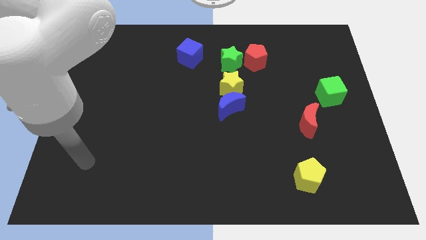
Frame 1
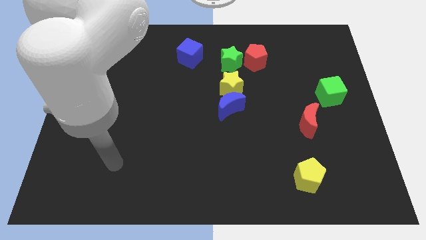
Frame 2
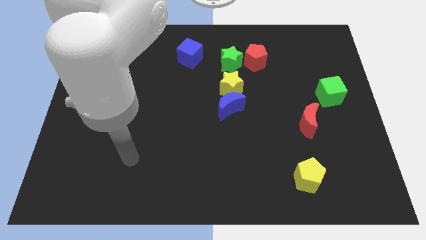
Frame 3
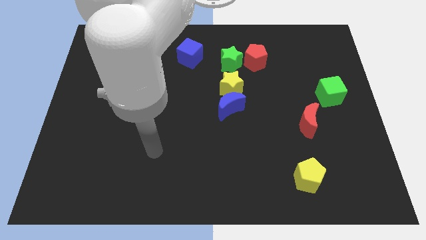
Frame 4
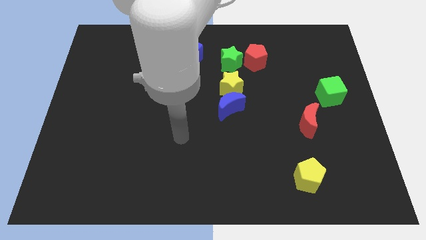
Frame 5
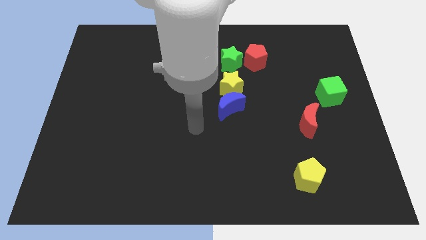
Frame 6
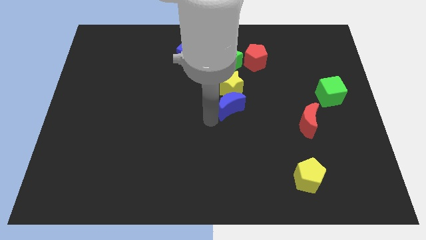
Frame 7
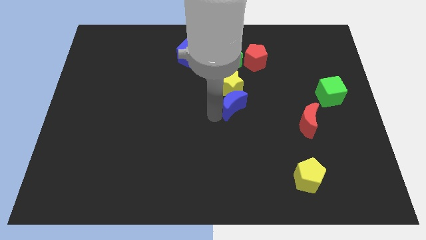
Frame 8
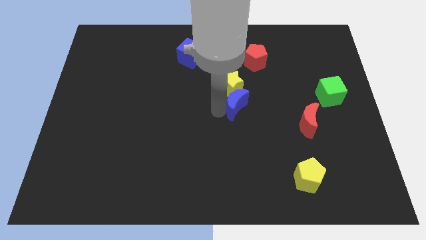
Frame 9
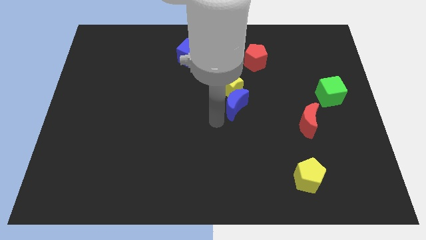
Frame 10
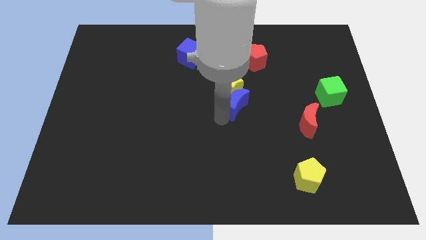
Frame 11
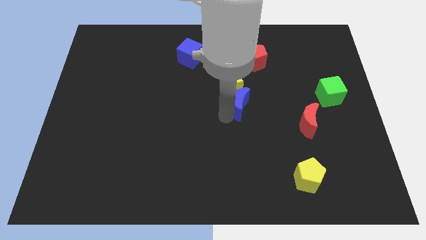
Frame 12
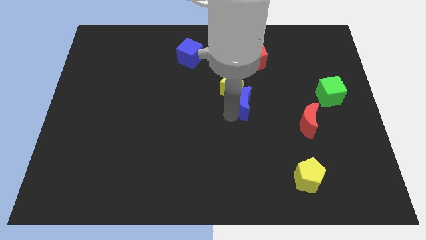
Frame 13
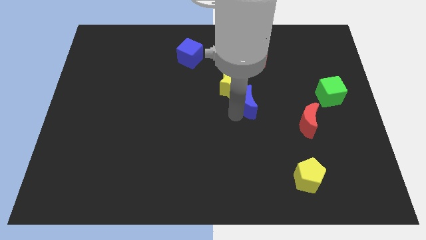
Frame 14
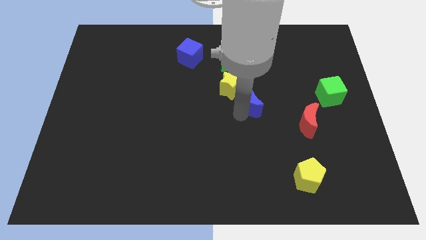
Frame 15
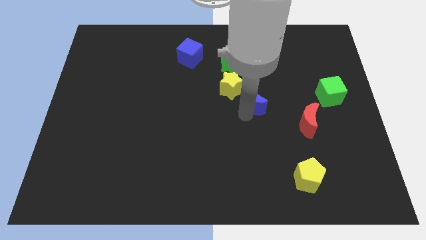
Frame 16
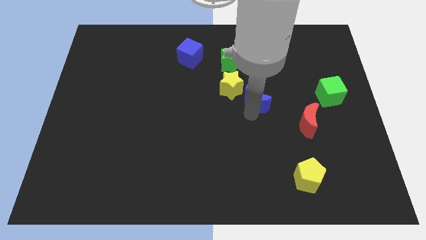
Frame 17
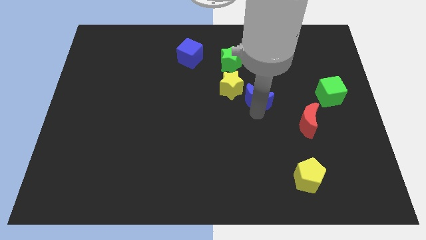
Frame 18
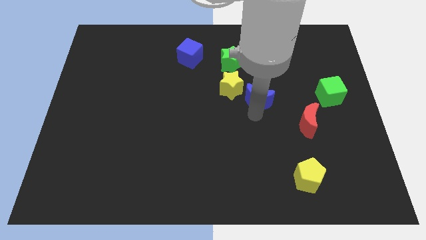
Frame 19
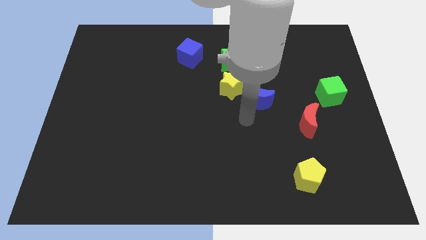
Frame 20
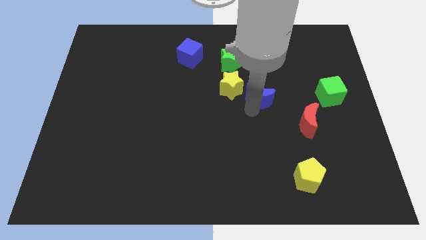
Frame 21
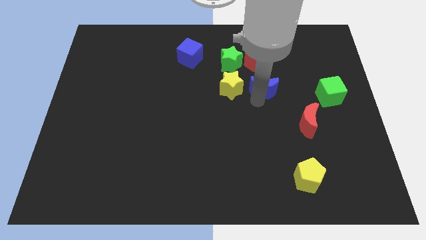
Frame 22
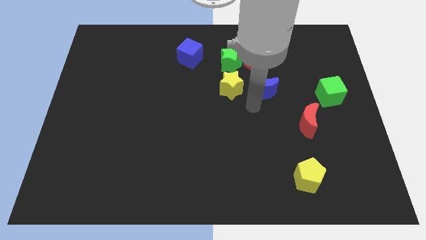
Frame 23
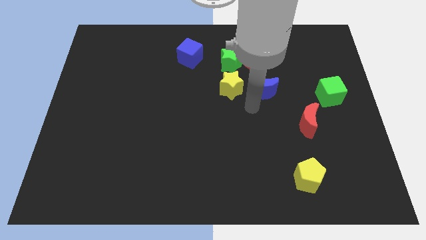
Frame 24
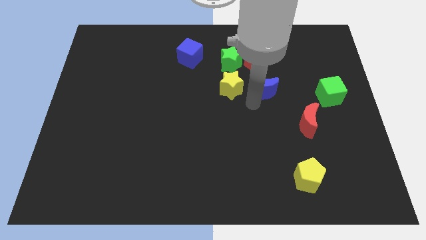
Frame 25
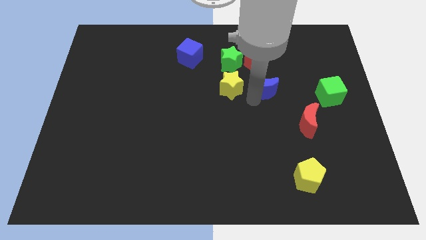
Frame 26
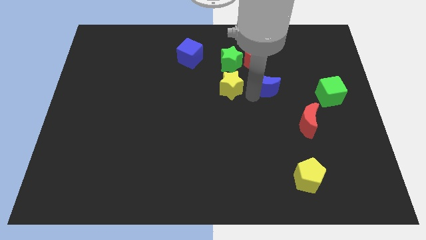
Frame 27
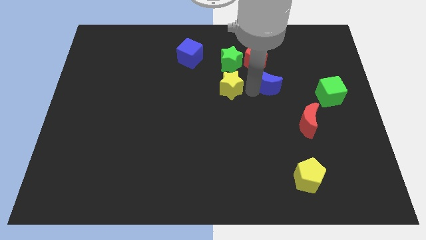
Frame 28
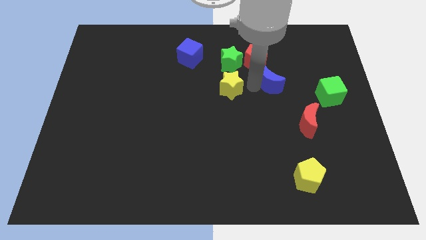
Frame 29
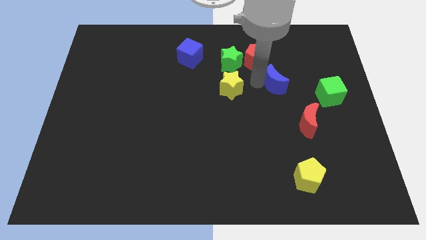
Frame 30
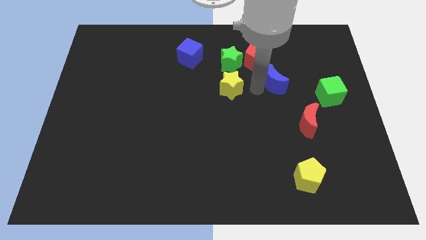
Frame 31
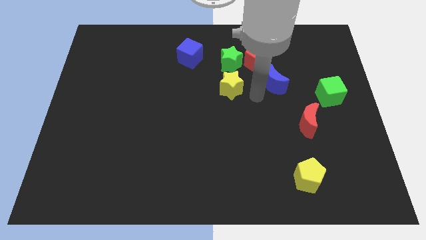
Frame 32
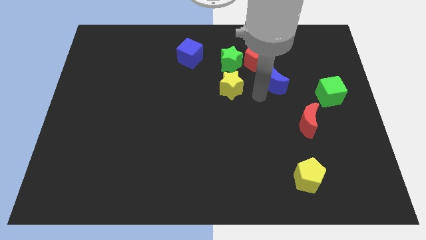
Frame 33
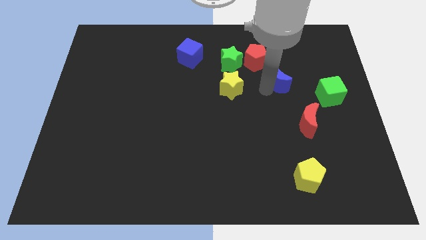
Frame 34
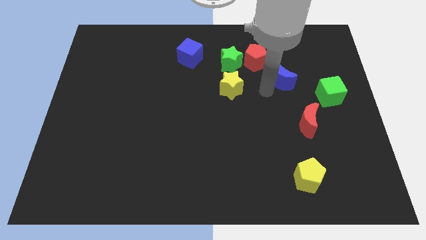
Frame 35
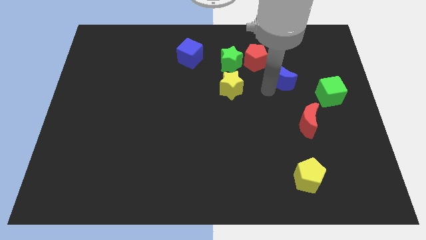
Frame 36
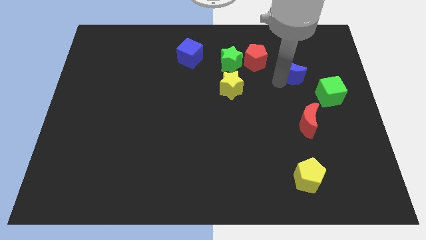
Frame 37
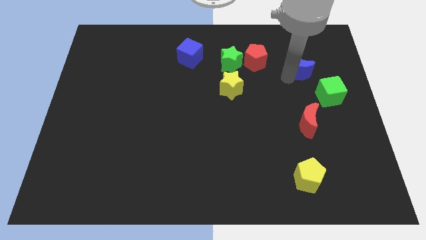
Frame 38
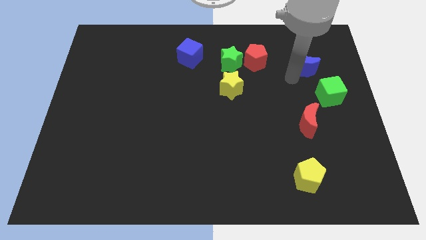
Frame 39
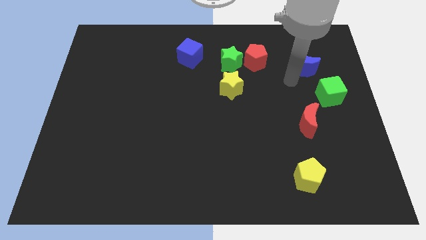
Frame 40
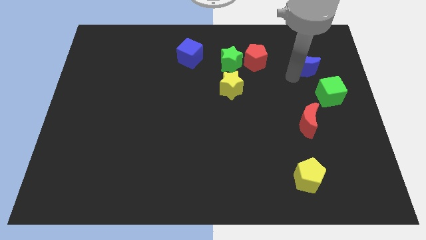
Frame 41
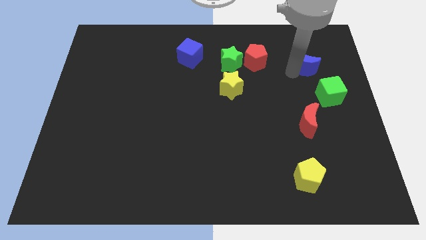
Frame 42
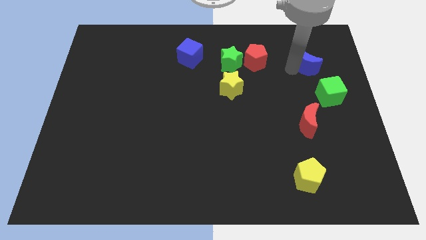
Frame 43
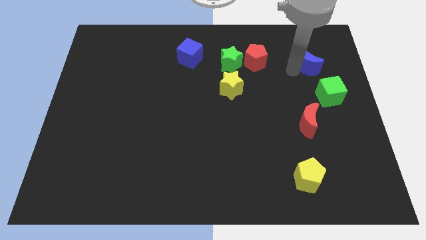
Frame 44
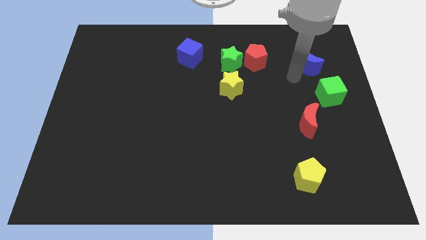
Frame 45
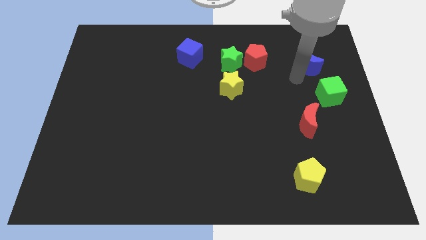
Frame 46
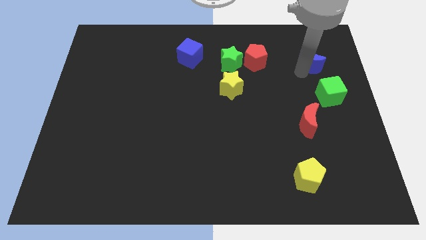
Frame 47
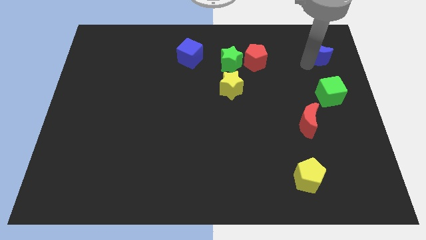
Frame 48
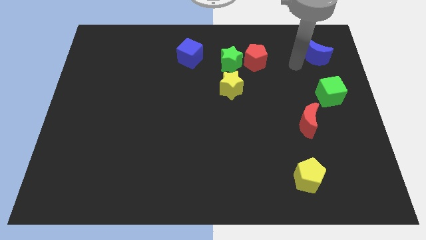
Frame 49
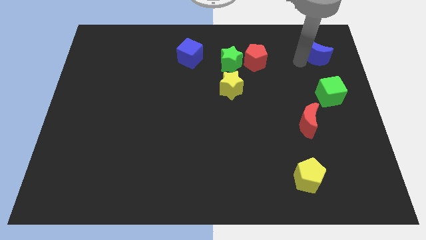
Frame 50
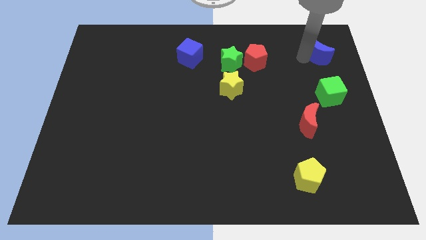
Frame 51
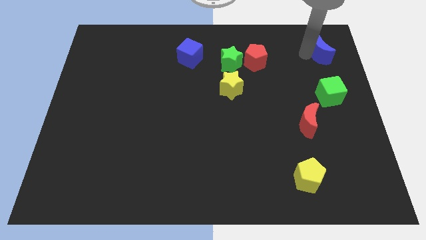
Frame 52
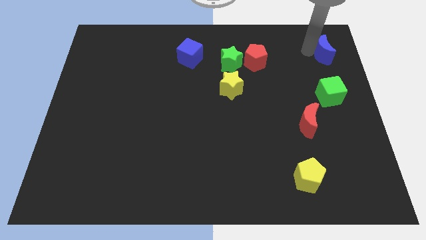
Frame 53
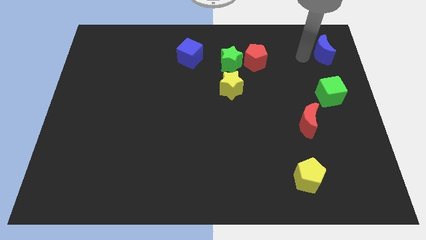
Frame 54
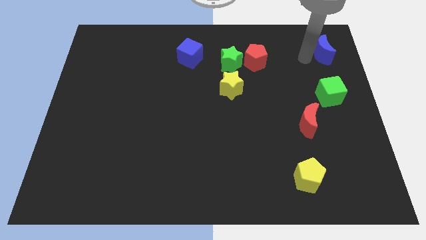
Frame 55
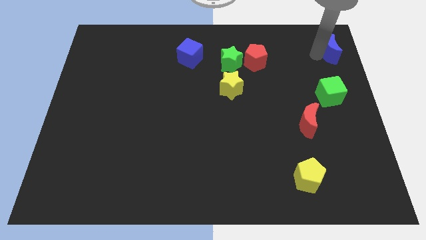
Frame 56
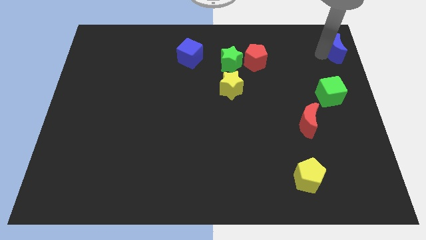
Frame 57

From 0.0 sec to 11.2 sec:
slide the blue moon to the top right corner

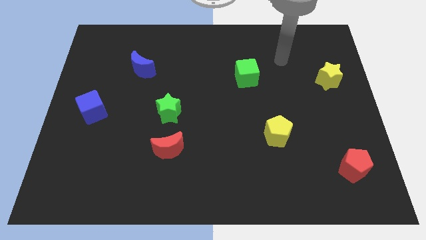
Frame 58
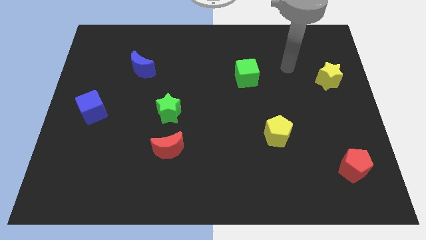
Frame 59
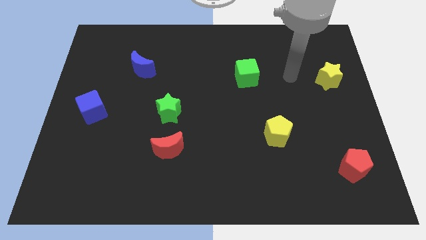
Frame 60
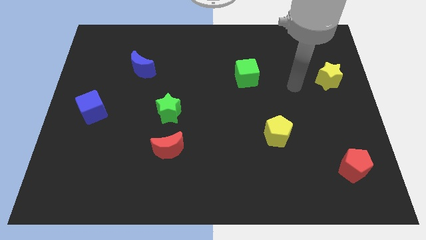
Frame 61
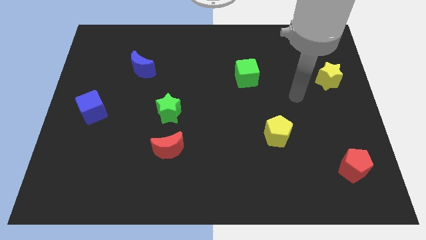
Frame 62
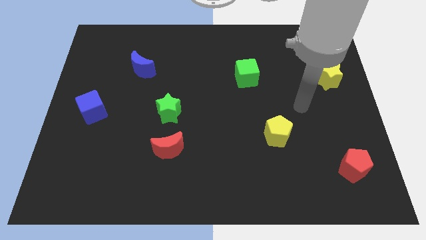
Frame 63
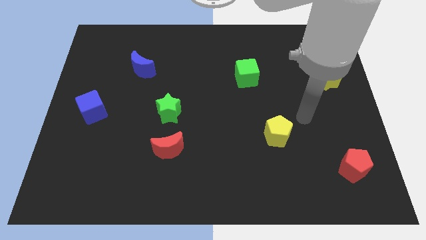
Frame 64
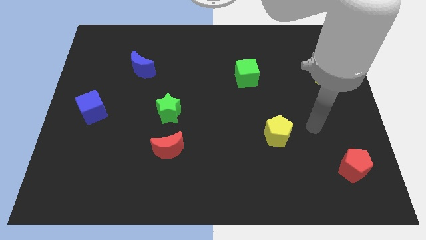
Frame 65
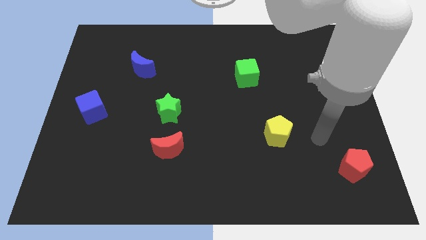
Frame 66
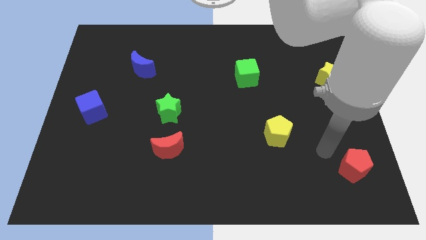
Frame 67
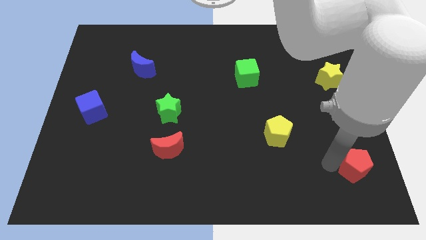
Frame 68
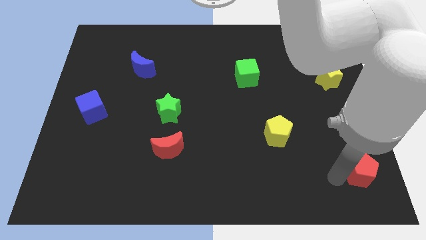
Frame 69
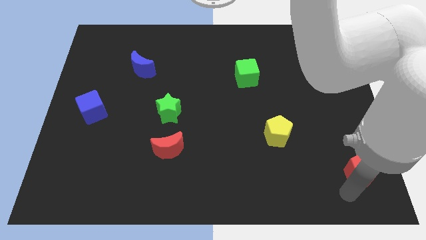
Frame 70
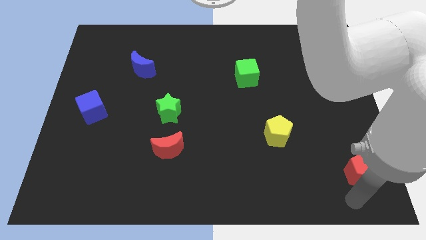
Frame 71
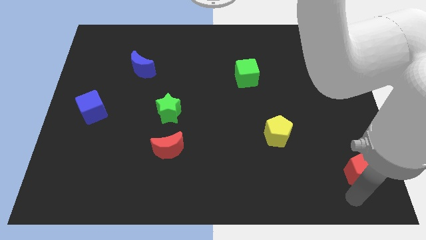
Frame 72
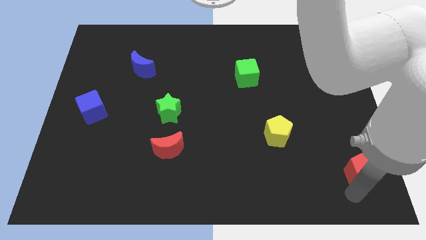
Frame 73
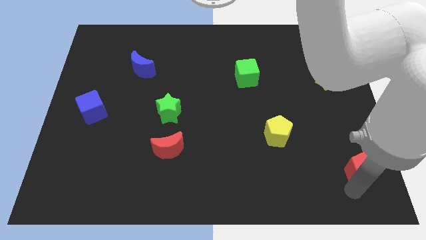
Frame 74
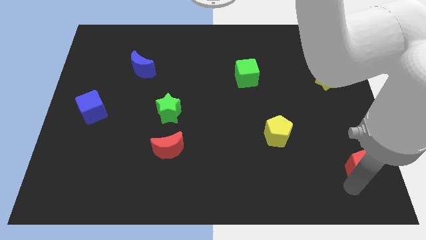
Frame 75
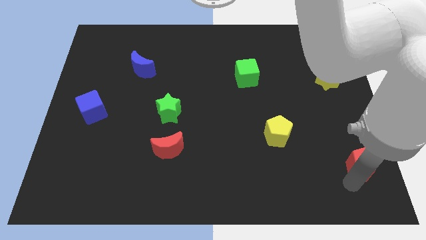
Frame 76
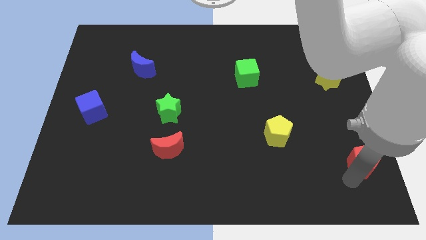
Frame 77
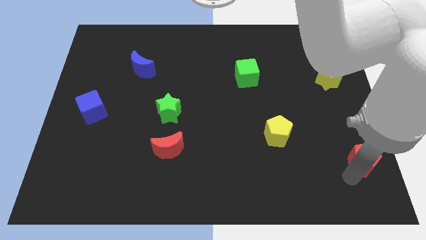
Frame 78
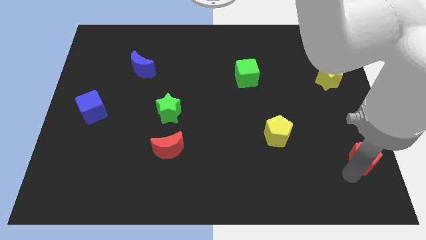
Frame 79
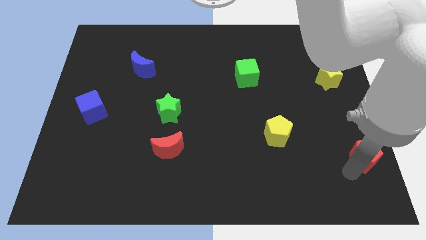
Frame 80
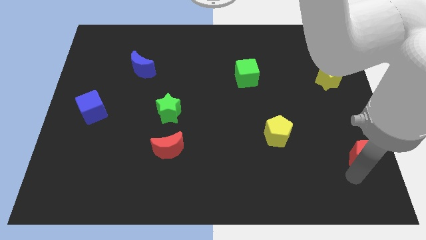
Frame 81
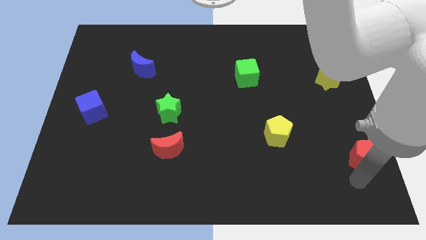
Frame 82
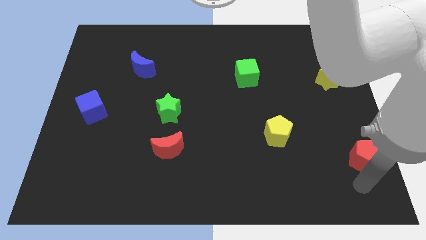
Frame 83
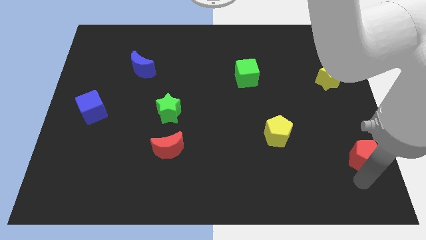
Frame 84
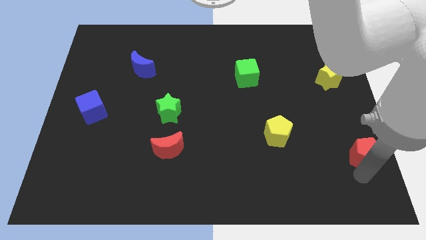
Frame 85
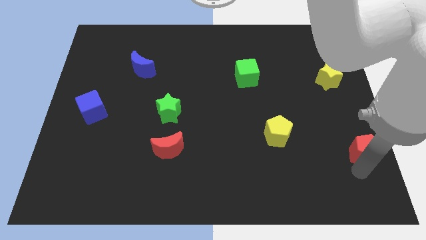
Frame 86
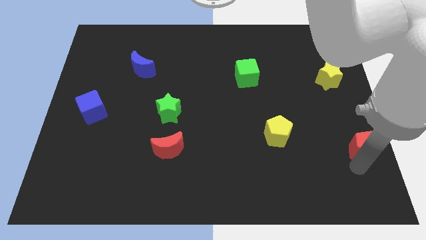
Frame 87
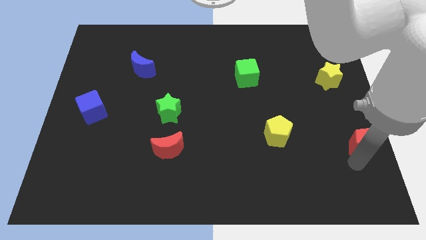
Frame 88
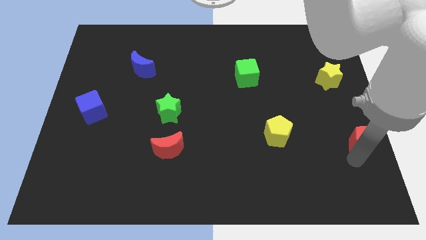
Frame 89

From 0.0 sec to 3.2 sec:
slide the red pentagon to the right side of the board
